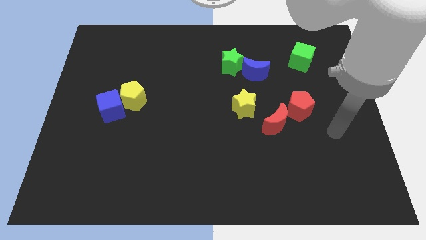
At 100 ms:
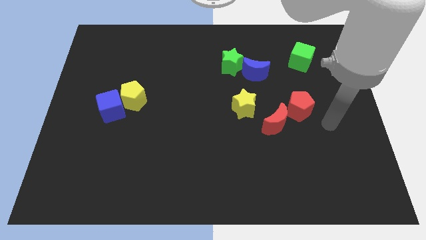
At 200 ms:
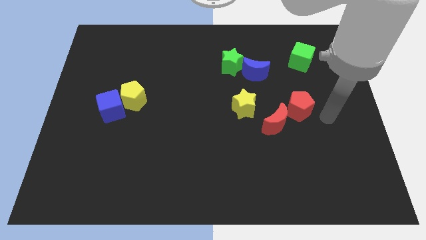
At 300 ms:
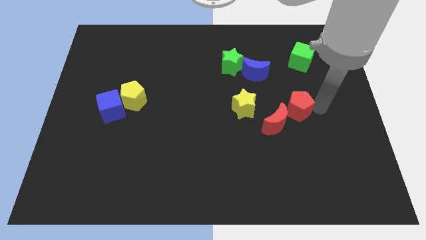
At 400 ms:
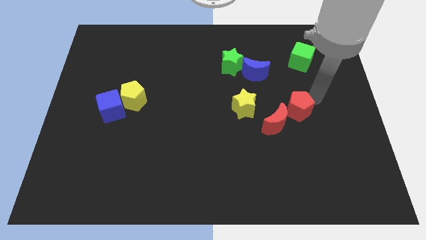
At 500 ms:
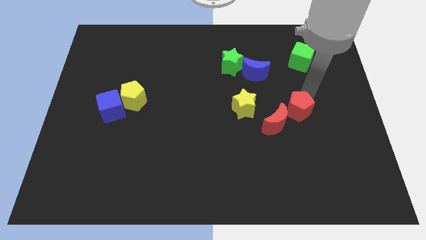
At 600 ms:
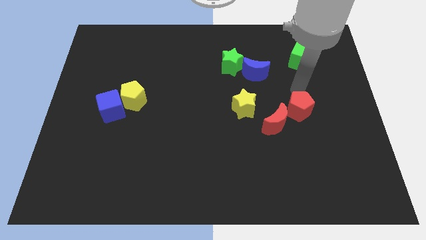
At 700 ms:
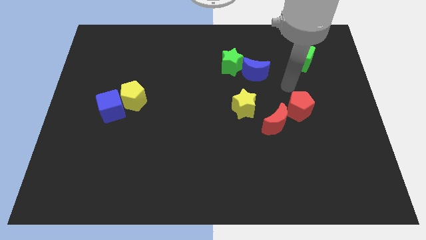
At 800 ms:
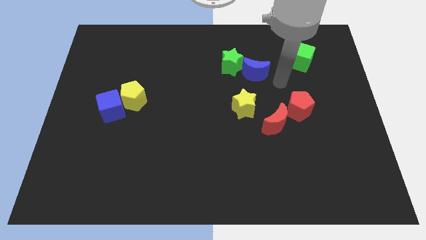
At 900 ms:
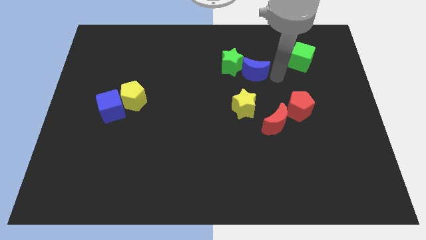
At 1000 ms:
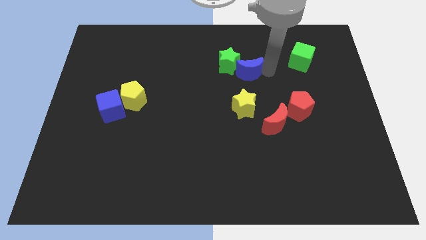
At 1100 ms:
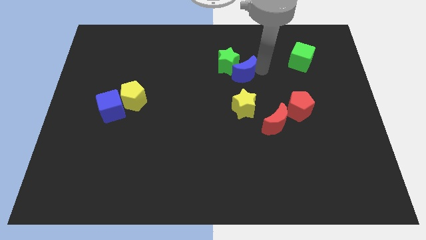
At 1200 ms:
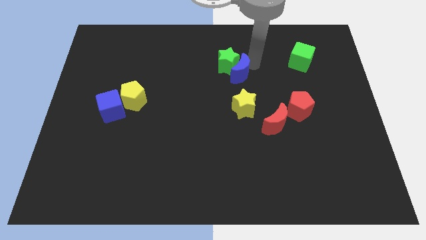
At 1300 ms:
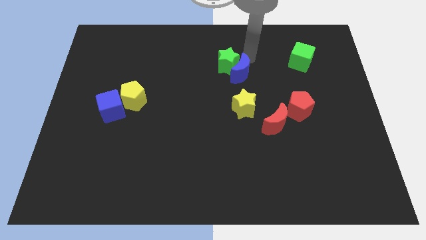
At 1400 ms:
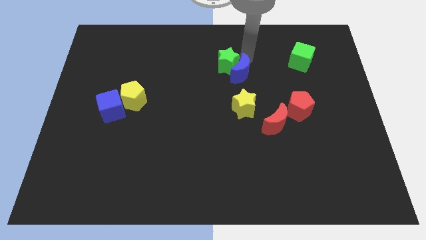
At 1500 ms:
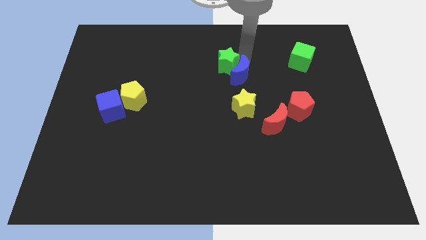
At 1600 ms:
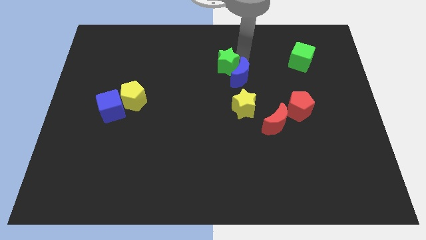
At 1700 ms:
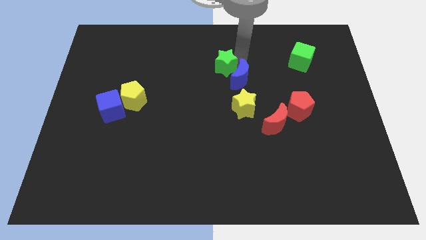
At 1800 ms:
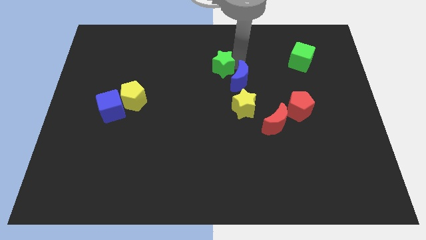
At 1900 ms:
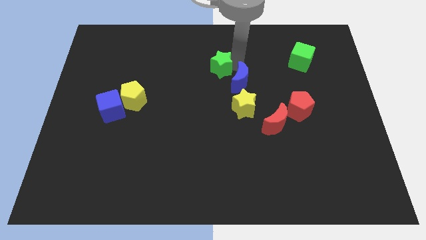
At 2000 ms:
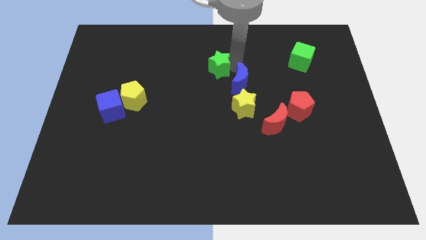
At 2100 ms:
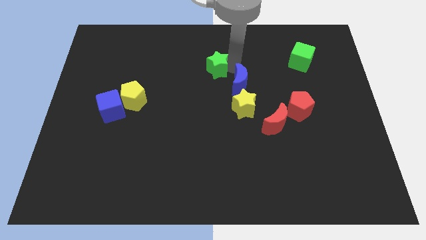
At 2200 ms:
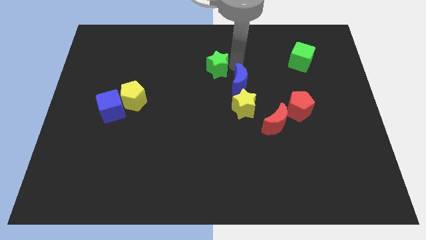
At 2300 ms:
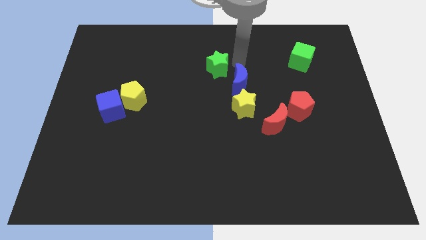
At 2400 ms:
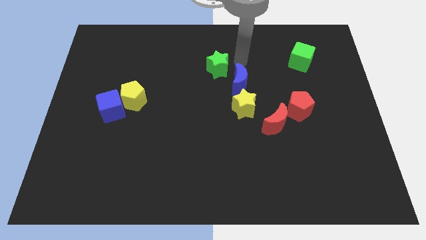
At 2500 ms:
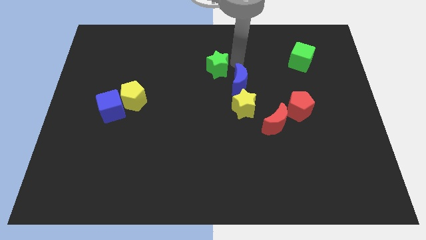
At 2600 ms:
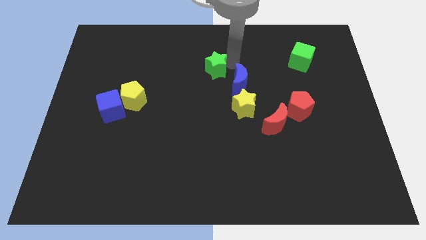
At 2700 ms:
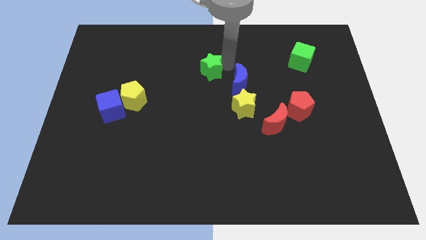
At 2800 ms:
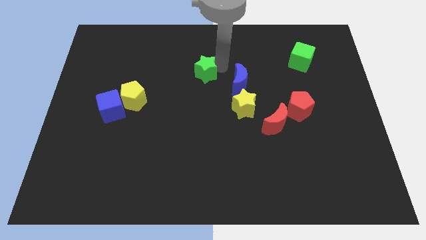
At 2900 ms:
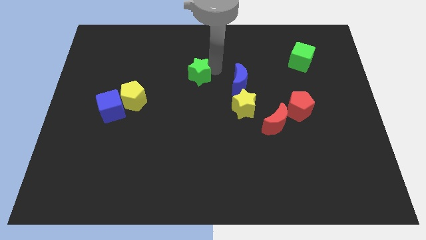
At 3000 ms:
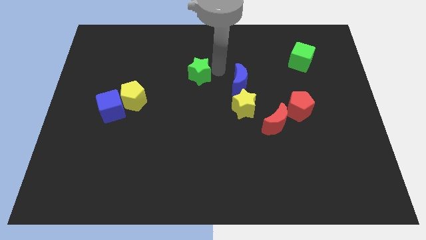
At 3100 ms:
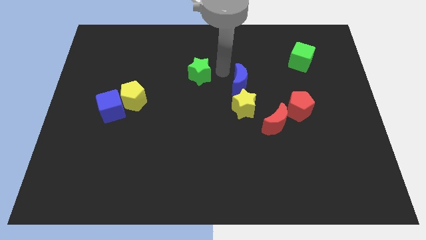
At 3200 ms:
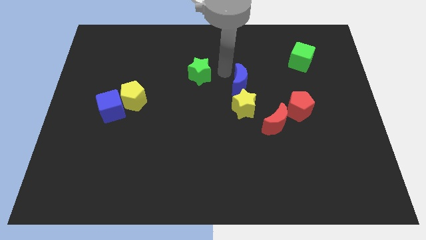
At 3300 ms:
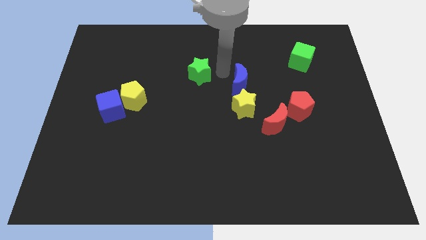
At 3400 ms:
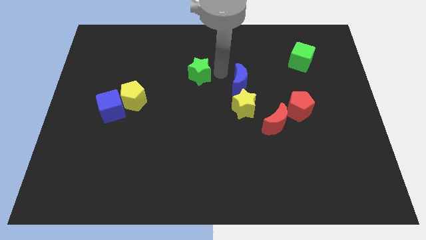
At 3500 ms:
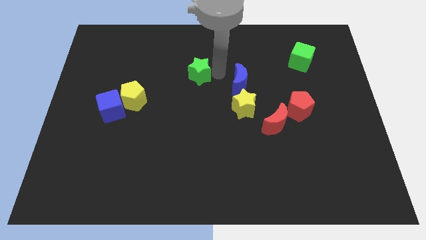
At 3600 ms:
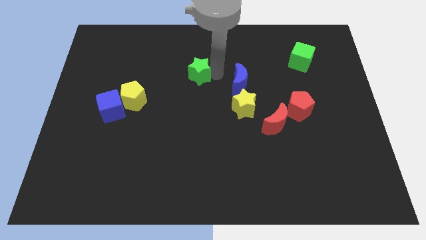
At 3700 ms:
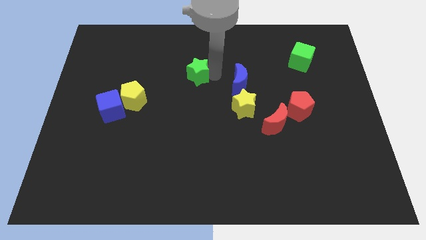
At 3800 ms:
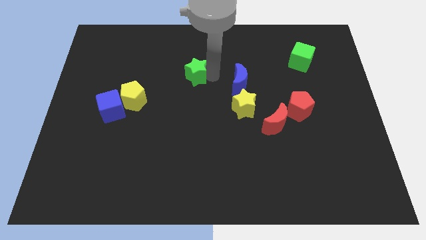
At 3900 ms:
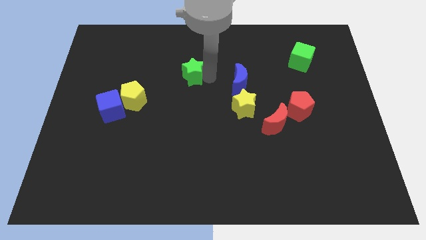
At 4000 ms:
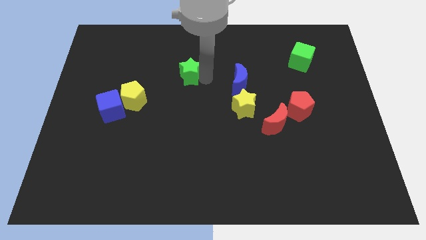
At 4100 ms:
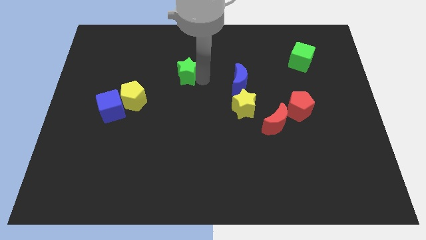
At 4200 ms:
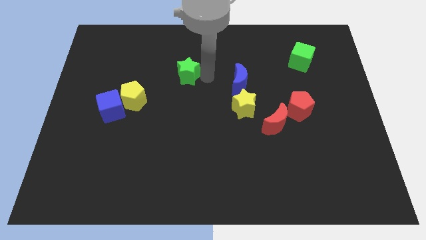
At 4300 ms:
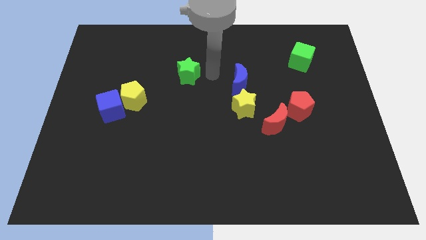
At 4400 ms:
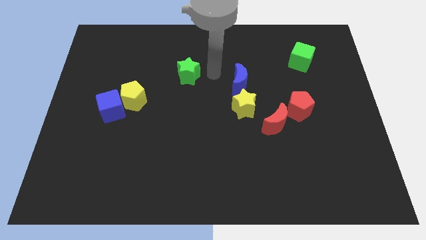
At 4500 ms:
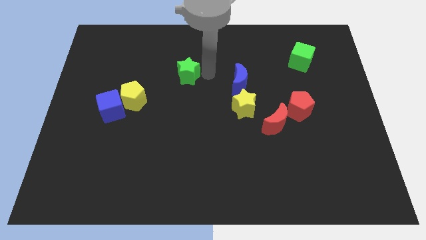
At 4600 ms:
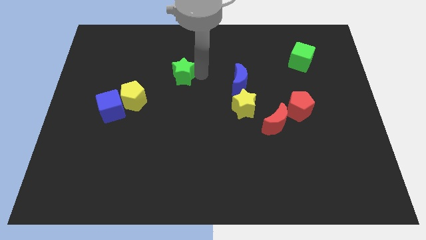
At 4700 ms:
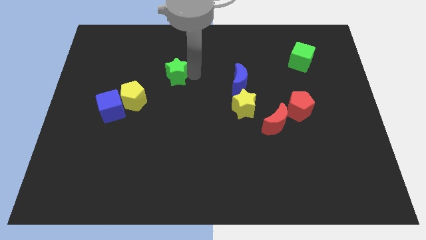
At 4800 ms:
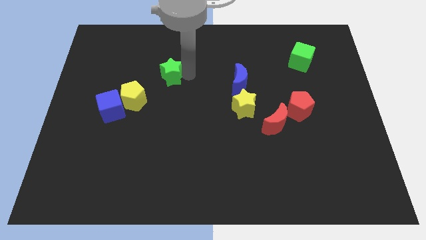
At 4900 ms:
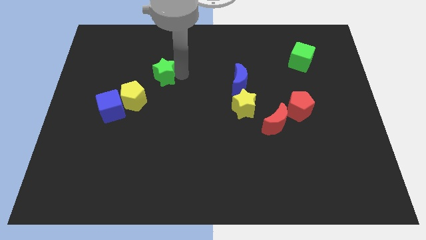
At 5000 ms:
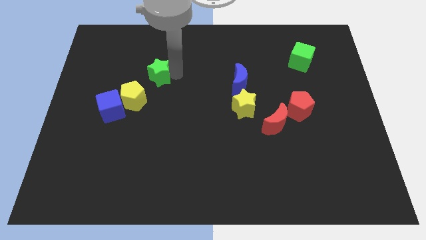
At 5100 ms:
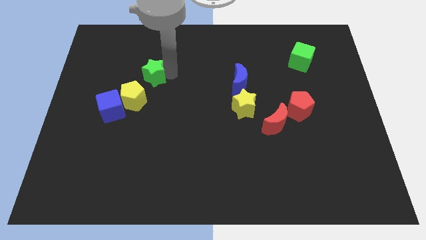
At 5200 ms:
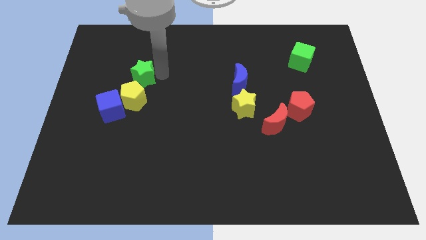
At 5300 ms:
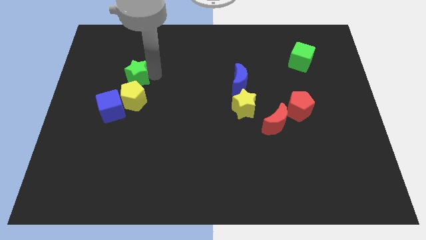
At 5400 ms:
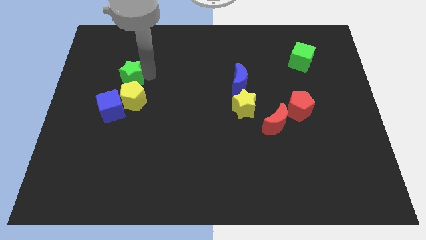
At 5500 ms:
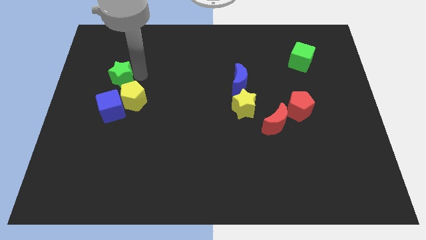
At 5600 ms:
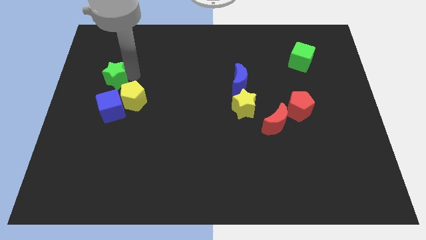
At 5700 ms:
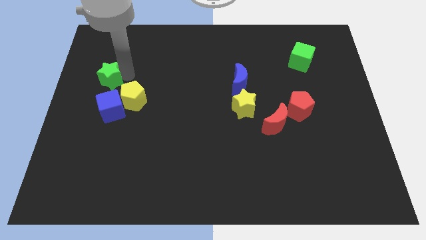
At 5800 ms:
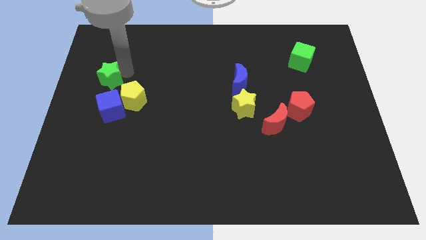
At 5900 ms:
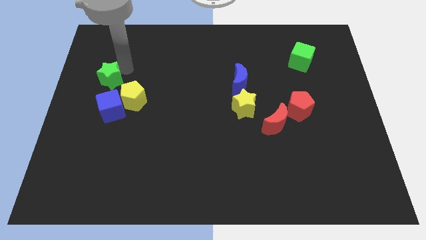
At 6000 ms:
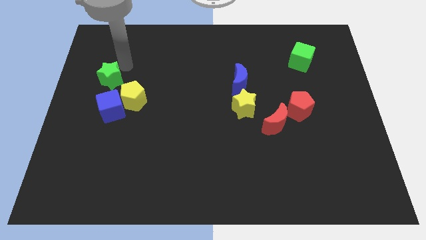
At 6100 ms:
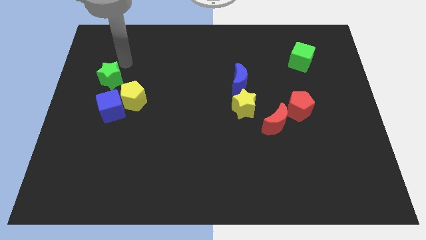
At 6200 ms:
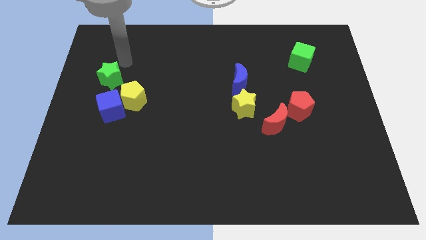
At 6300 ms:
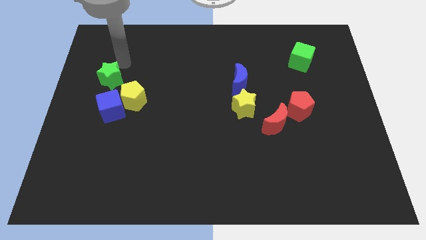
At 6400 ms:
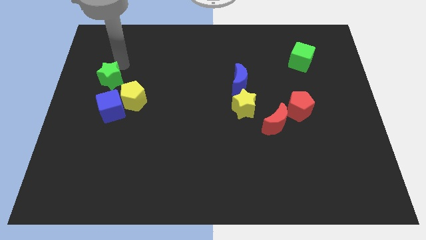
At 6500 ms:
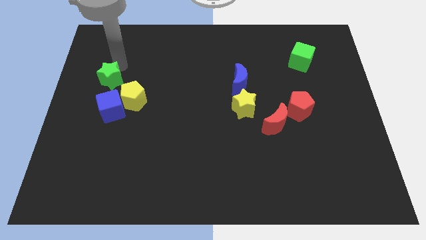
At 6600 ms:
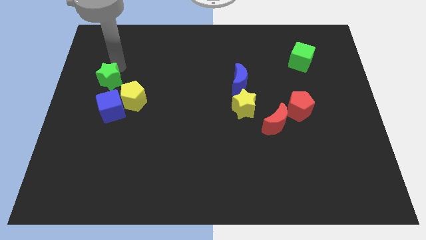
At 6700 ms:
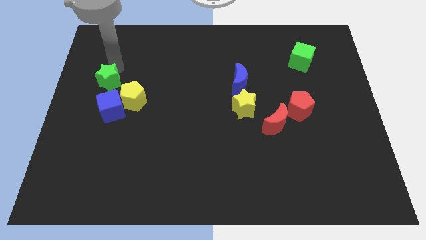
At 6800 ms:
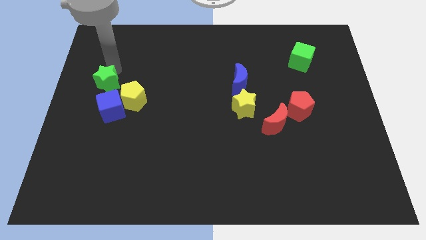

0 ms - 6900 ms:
slide the green star to the center left
